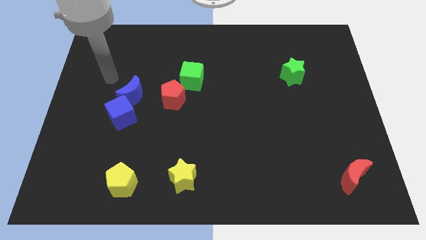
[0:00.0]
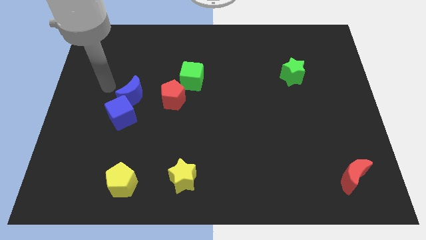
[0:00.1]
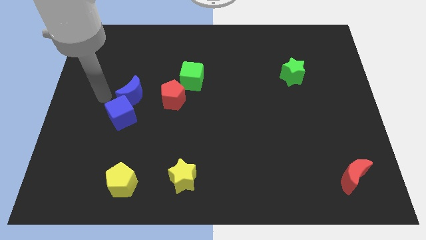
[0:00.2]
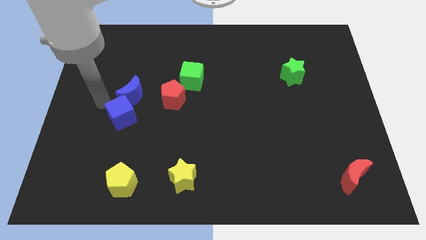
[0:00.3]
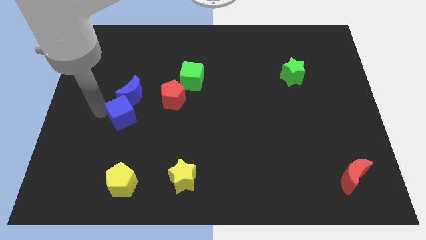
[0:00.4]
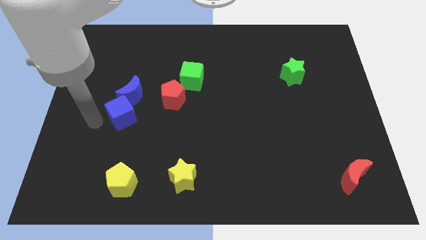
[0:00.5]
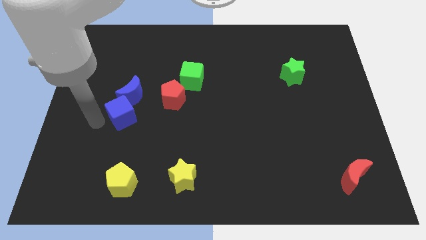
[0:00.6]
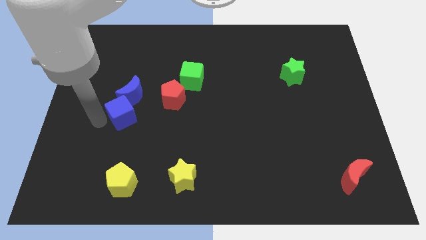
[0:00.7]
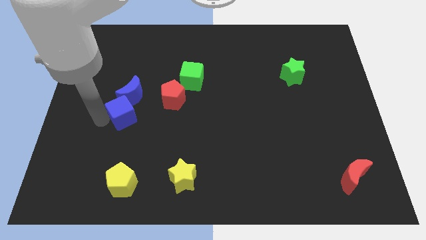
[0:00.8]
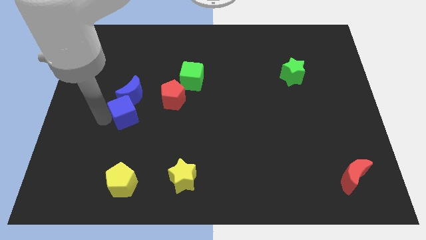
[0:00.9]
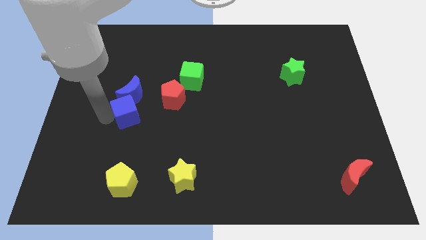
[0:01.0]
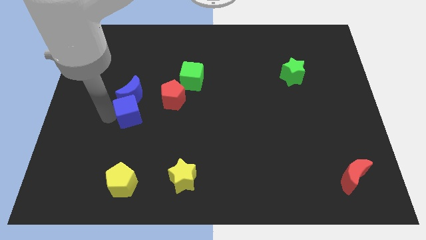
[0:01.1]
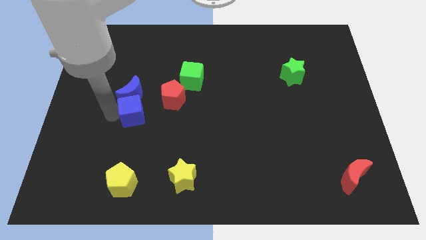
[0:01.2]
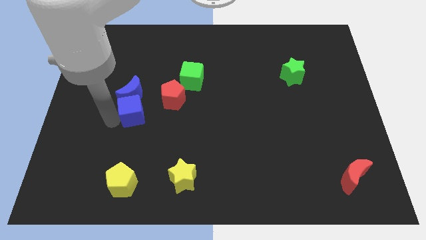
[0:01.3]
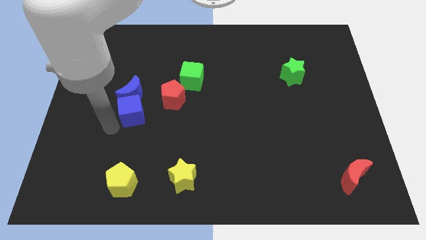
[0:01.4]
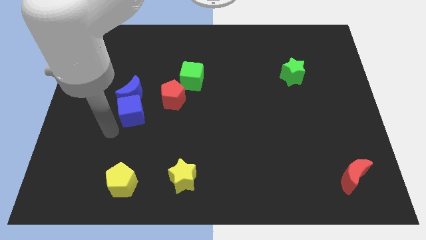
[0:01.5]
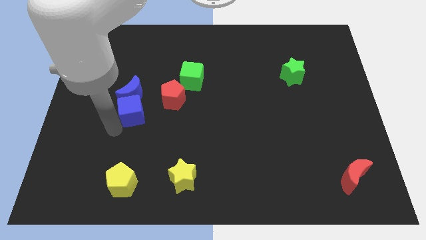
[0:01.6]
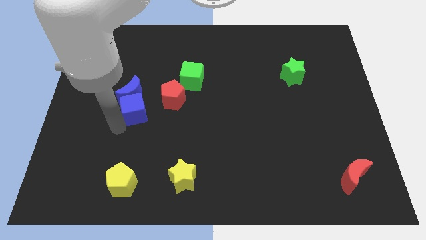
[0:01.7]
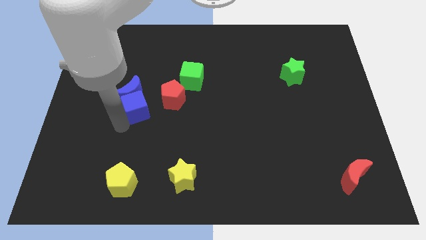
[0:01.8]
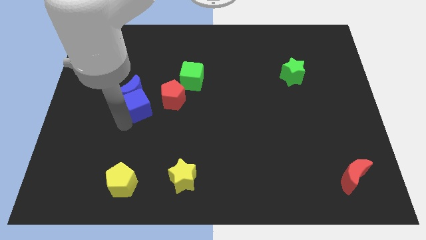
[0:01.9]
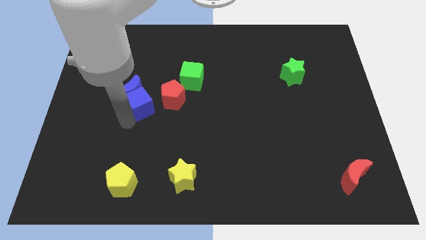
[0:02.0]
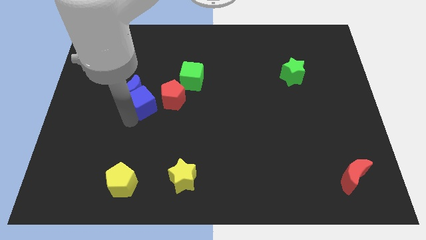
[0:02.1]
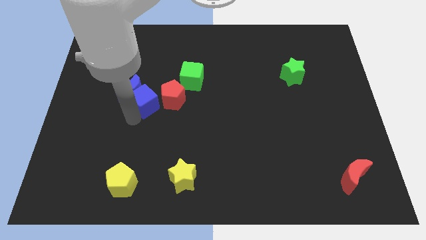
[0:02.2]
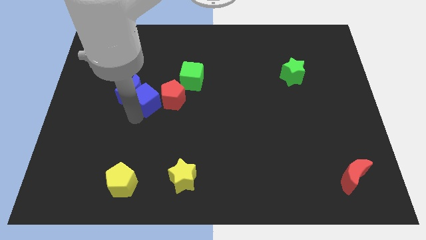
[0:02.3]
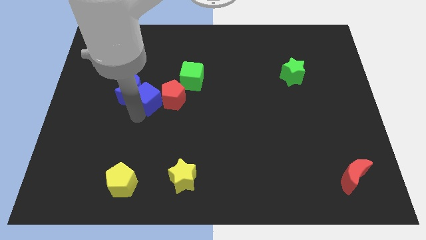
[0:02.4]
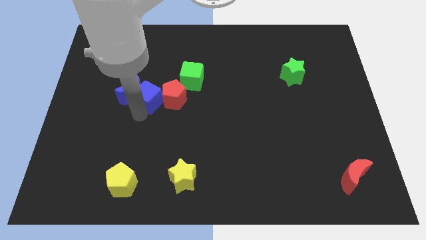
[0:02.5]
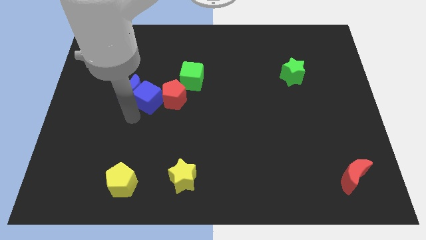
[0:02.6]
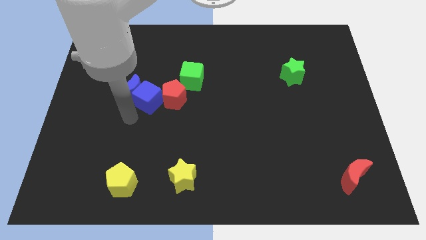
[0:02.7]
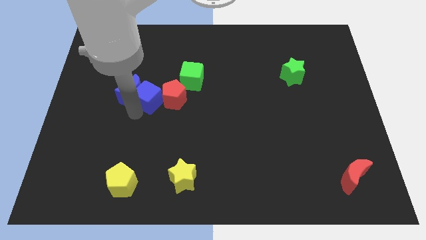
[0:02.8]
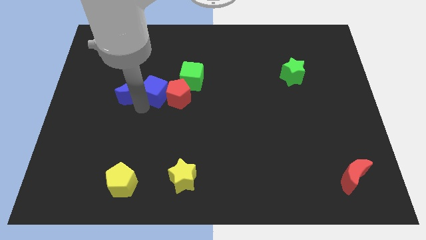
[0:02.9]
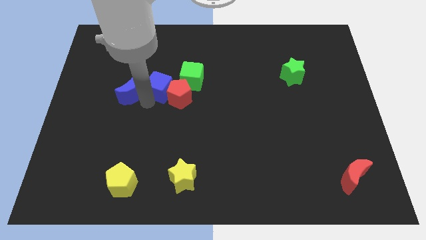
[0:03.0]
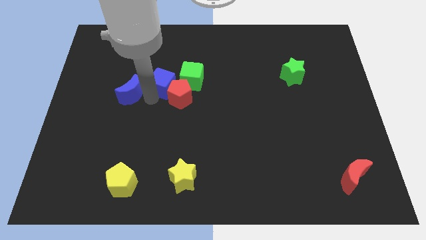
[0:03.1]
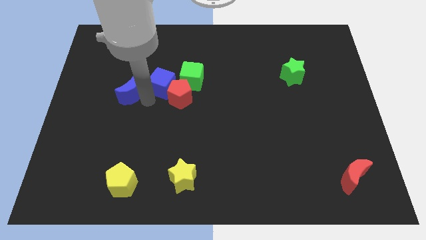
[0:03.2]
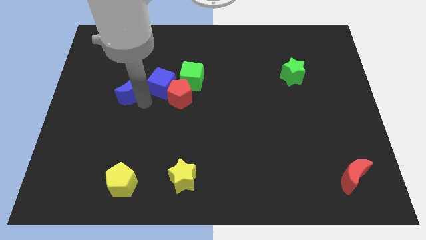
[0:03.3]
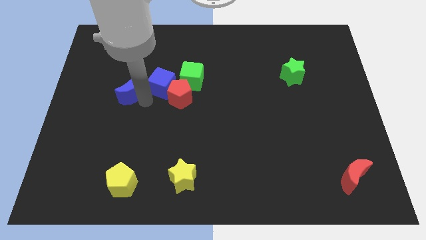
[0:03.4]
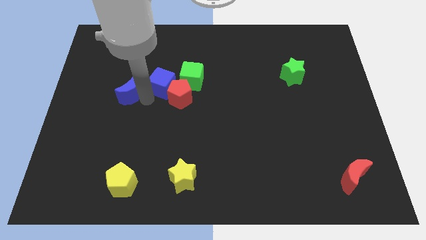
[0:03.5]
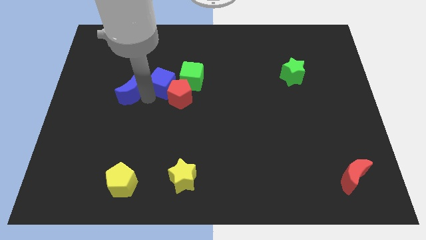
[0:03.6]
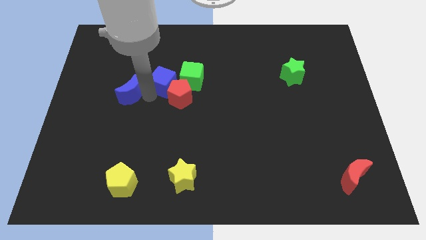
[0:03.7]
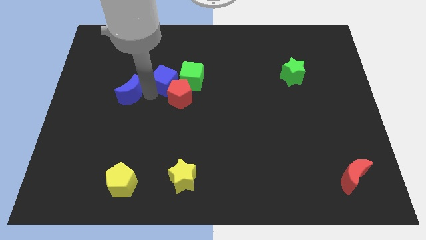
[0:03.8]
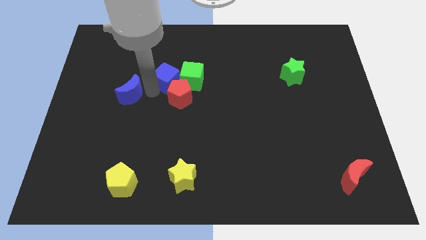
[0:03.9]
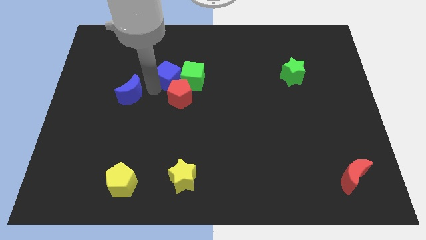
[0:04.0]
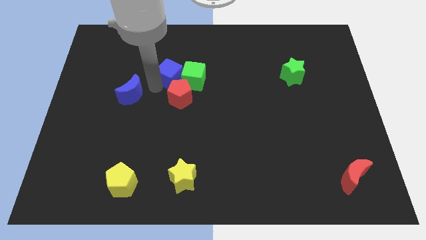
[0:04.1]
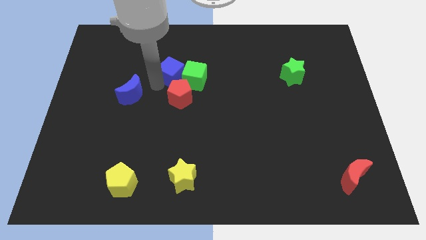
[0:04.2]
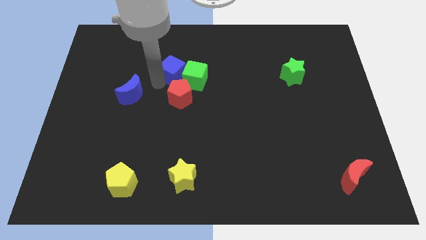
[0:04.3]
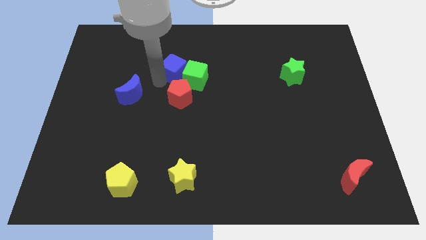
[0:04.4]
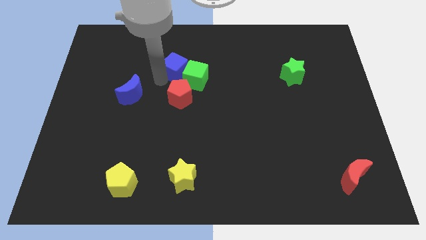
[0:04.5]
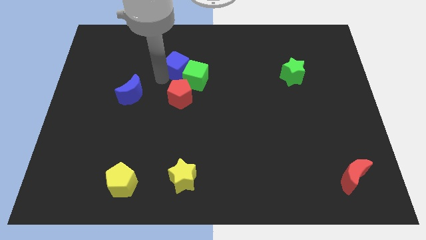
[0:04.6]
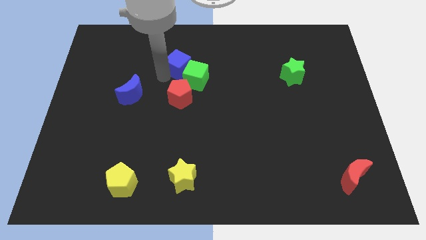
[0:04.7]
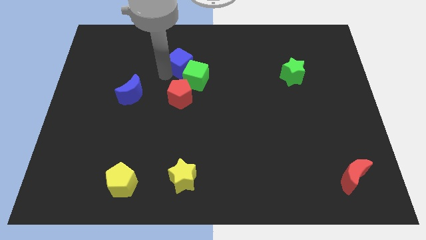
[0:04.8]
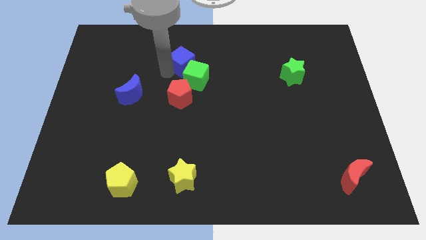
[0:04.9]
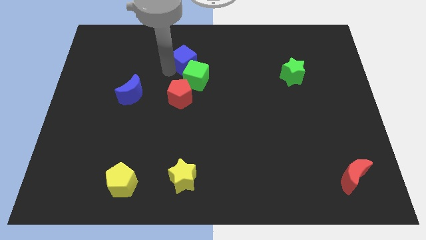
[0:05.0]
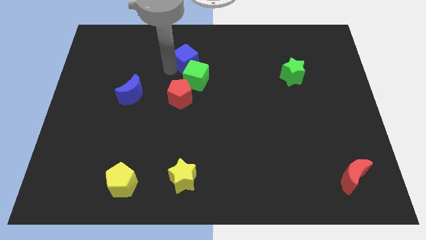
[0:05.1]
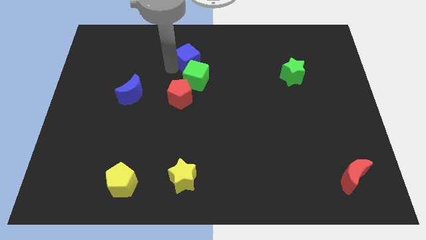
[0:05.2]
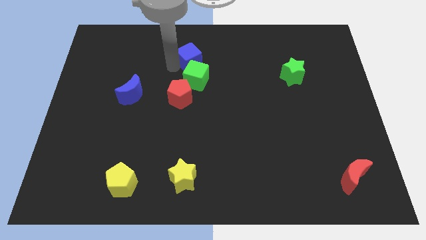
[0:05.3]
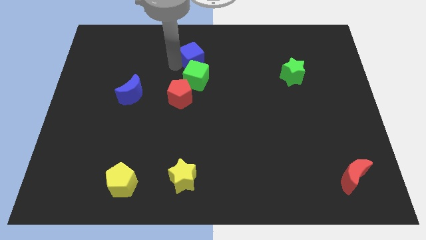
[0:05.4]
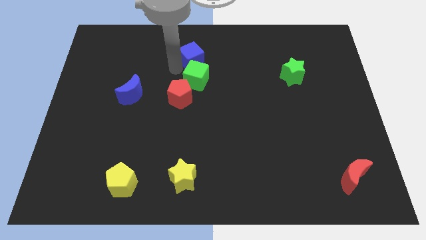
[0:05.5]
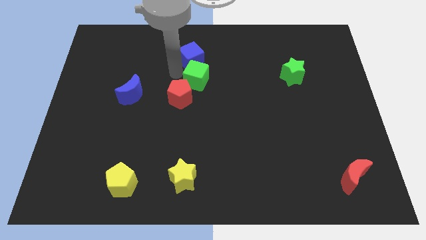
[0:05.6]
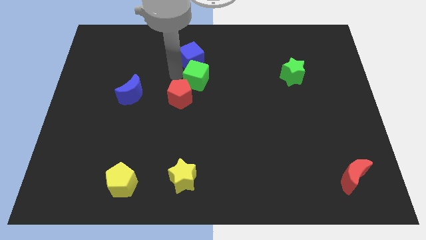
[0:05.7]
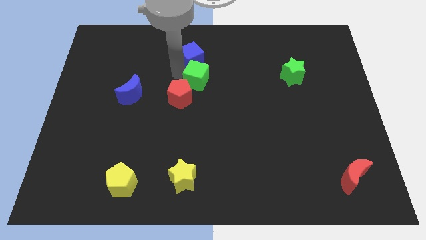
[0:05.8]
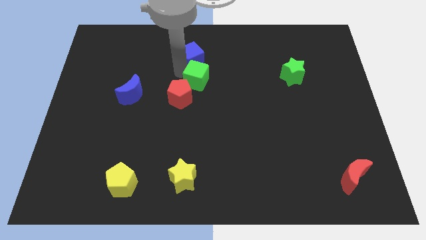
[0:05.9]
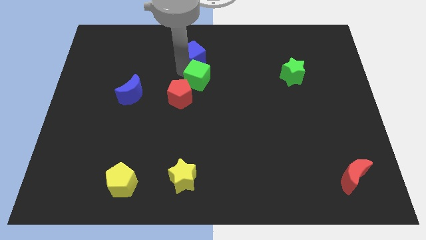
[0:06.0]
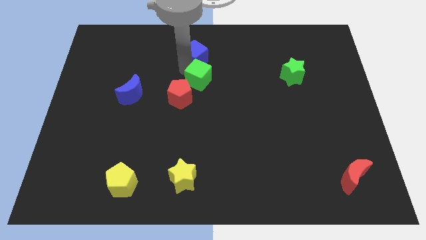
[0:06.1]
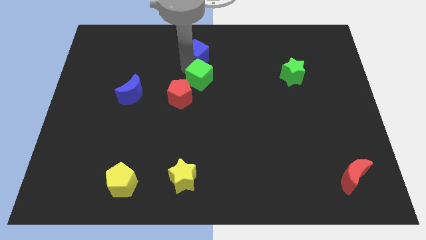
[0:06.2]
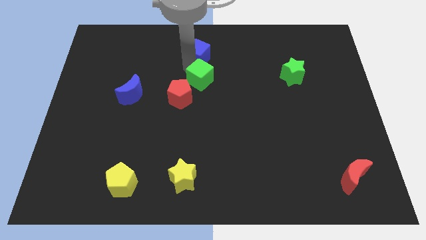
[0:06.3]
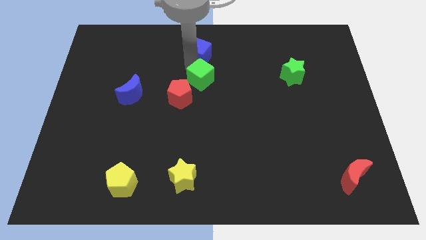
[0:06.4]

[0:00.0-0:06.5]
push the blue cube to the top side
